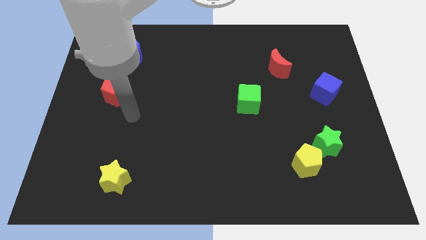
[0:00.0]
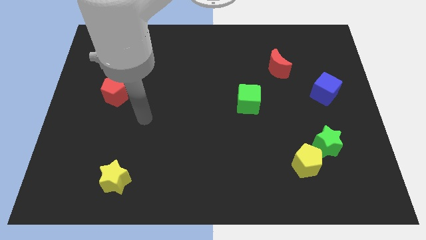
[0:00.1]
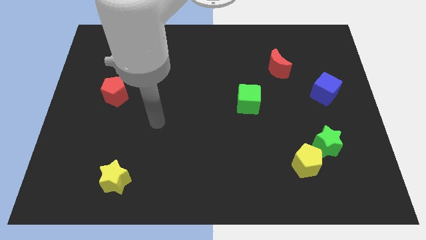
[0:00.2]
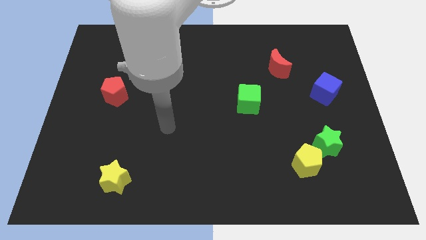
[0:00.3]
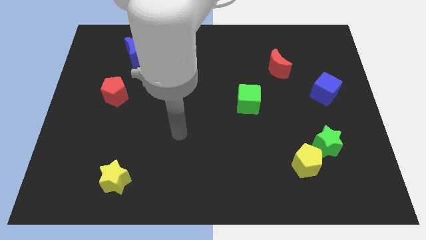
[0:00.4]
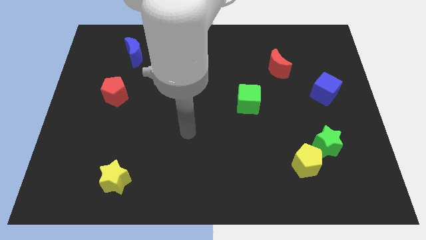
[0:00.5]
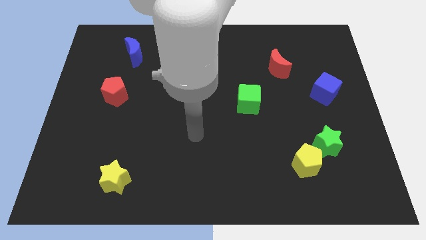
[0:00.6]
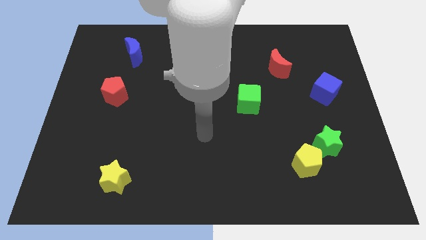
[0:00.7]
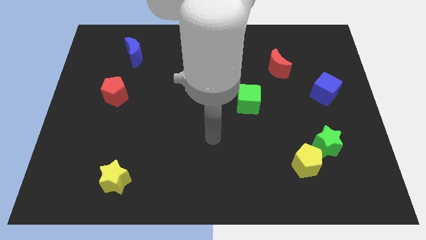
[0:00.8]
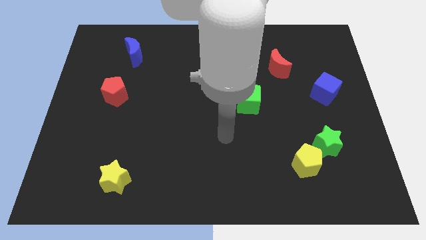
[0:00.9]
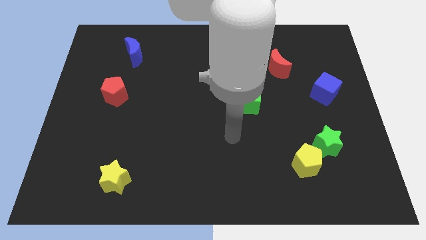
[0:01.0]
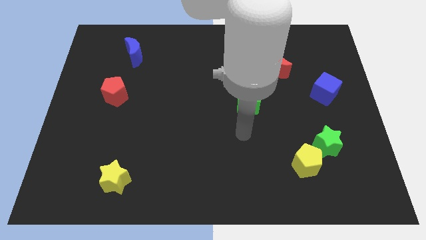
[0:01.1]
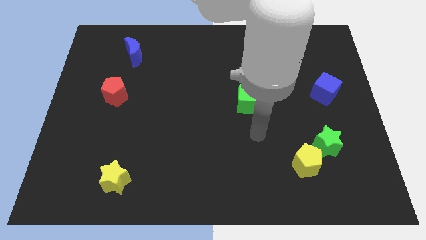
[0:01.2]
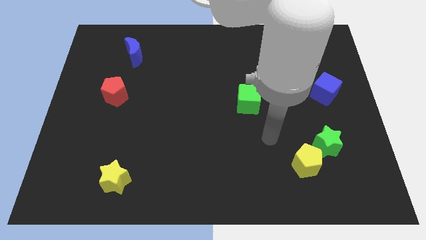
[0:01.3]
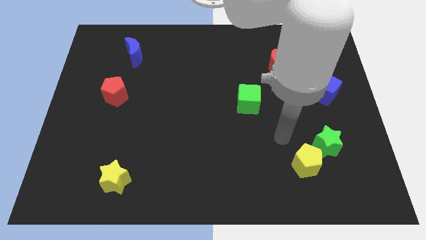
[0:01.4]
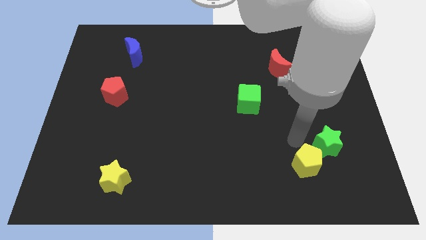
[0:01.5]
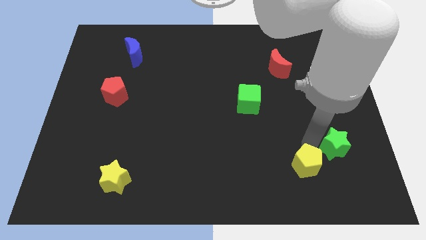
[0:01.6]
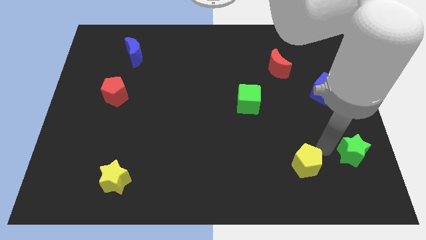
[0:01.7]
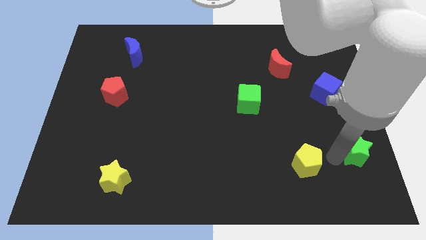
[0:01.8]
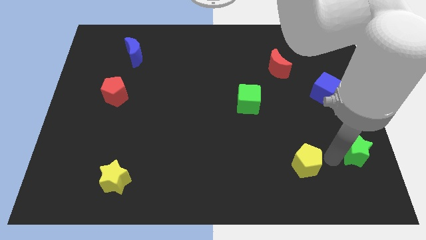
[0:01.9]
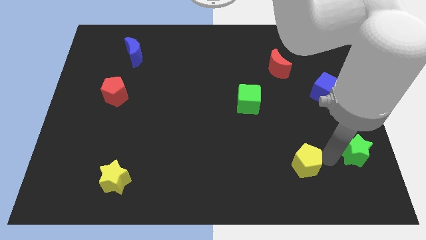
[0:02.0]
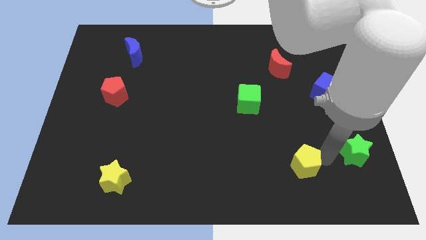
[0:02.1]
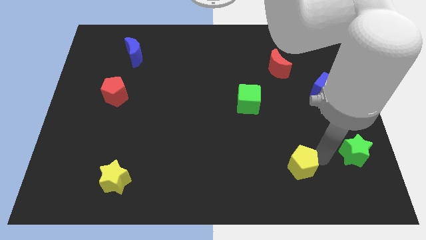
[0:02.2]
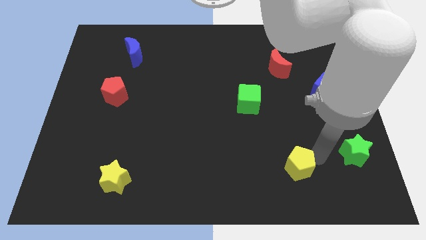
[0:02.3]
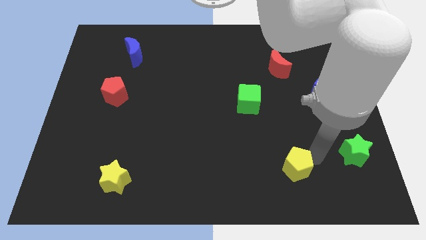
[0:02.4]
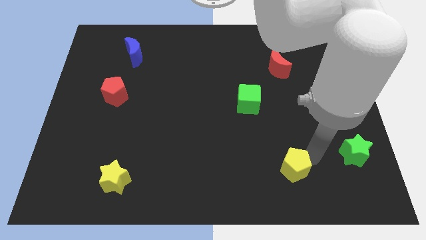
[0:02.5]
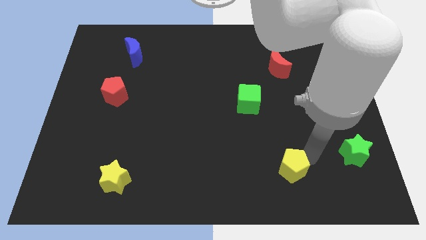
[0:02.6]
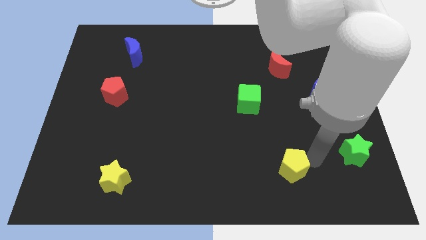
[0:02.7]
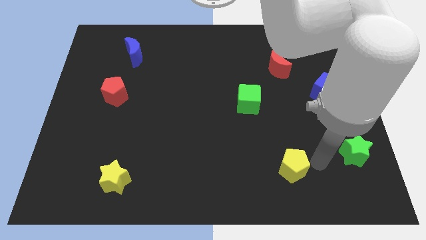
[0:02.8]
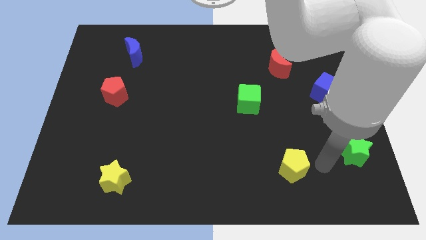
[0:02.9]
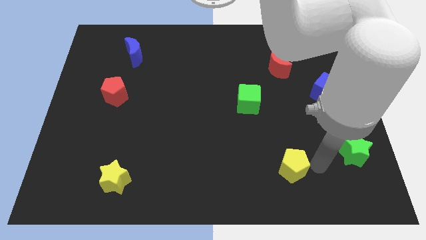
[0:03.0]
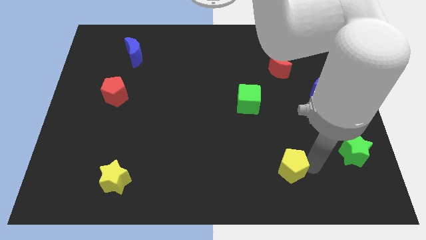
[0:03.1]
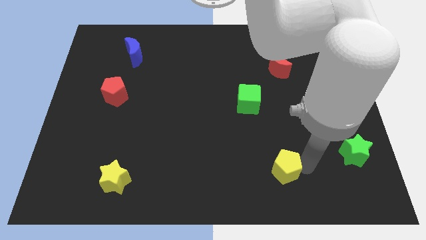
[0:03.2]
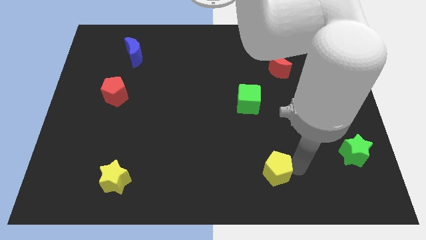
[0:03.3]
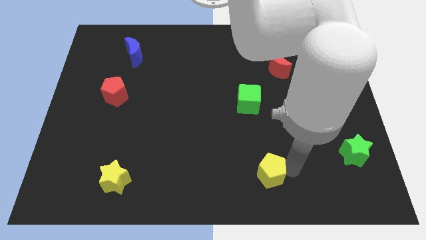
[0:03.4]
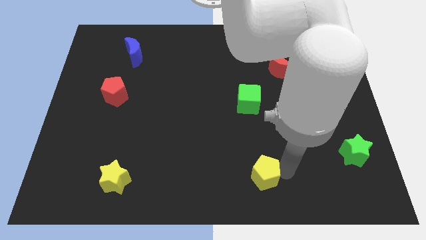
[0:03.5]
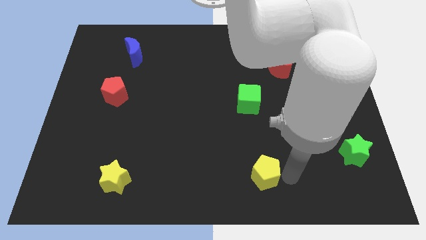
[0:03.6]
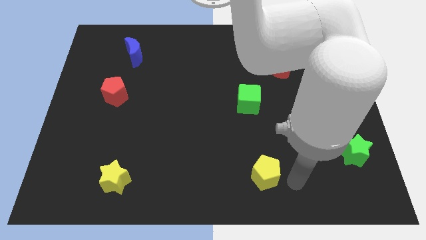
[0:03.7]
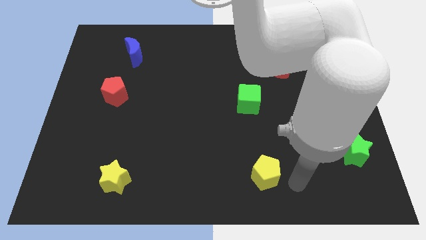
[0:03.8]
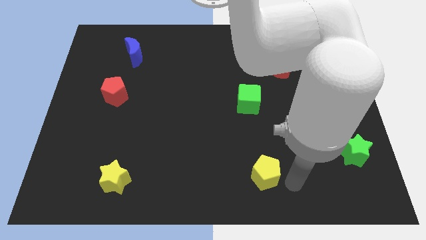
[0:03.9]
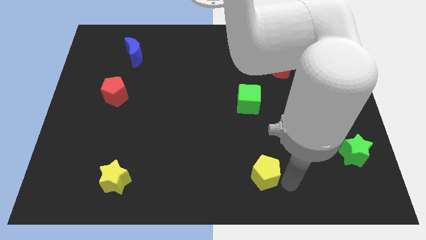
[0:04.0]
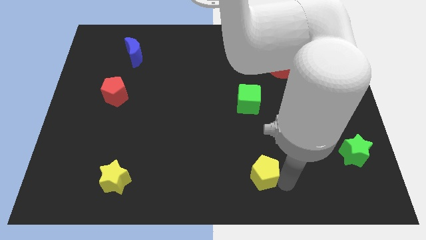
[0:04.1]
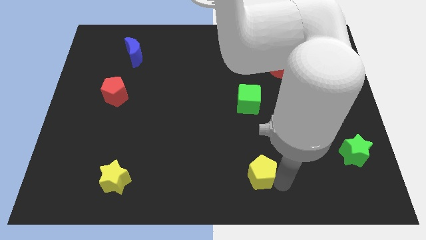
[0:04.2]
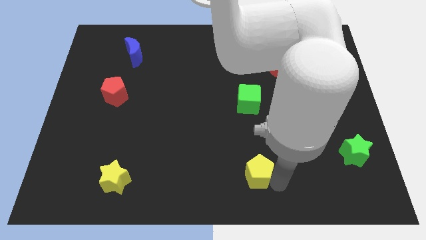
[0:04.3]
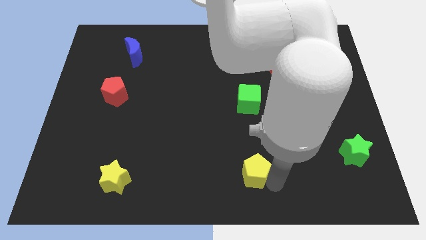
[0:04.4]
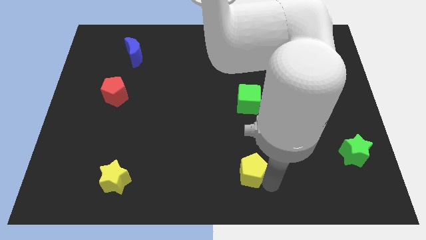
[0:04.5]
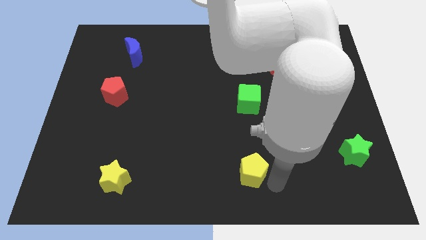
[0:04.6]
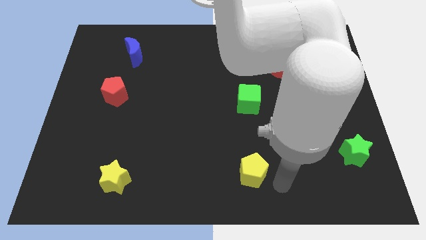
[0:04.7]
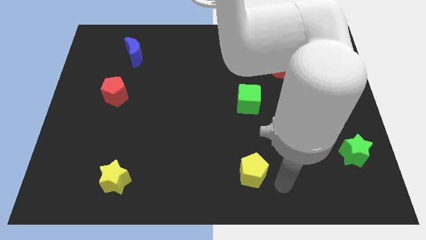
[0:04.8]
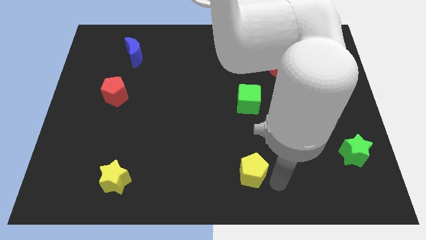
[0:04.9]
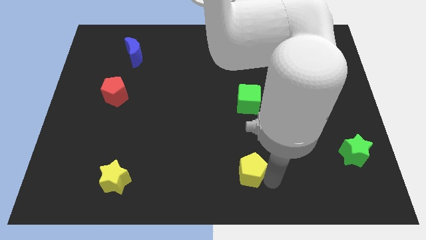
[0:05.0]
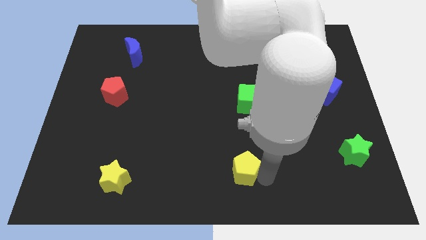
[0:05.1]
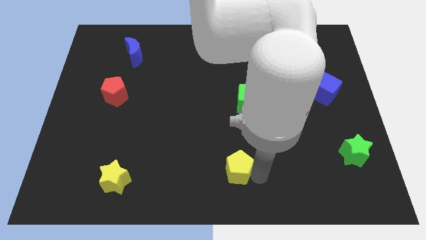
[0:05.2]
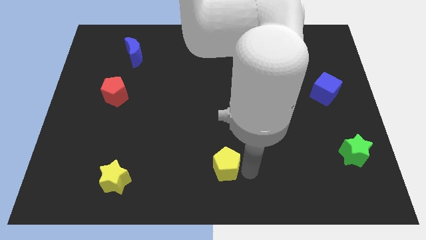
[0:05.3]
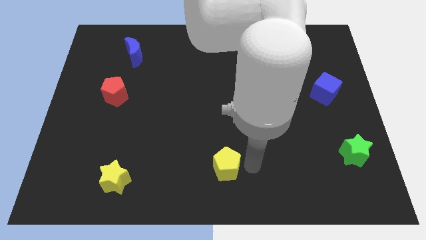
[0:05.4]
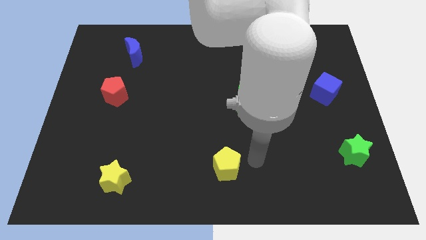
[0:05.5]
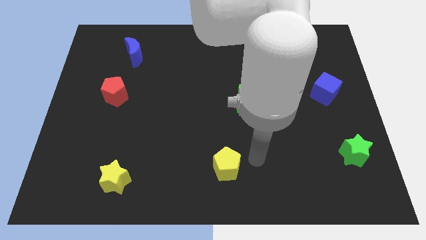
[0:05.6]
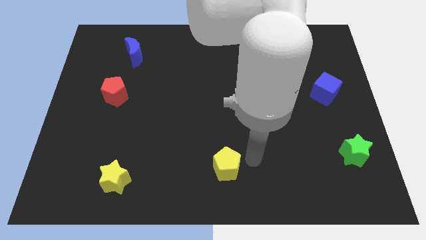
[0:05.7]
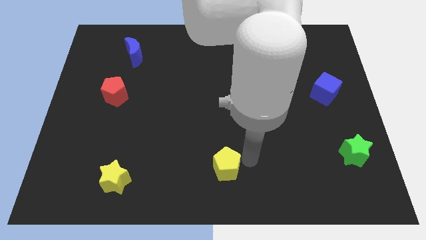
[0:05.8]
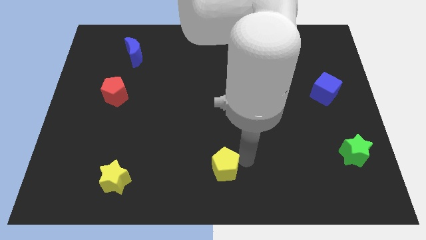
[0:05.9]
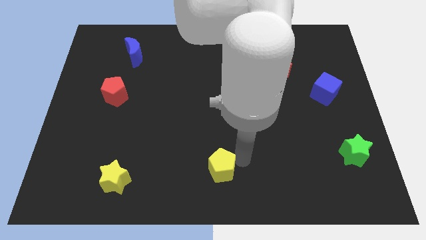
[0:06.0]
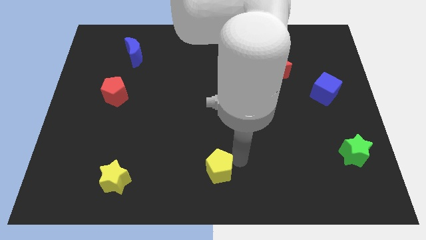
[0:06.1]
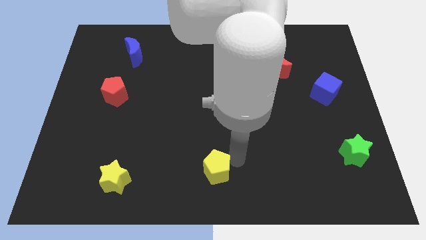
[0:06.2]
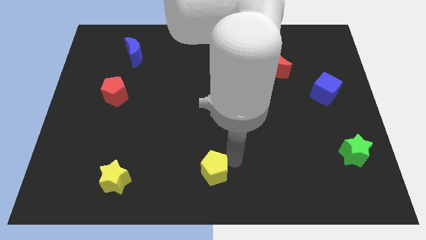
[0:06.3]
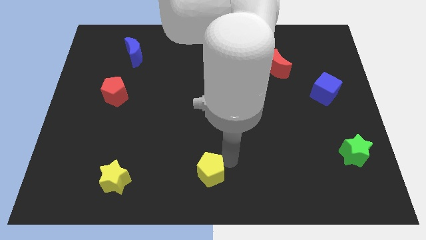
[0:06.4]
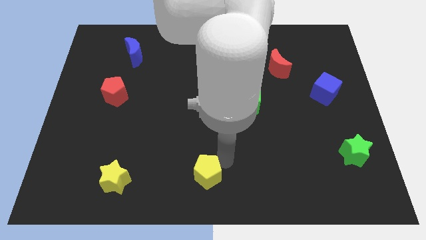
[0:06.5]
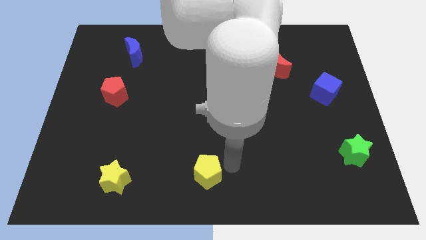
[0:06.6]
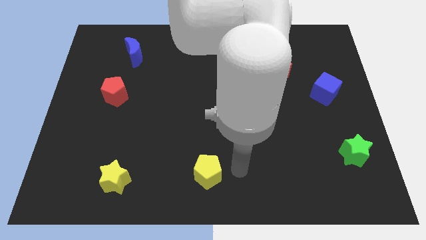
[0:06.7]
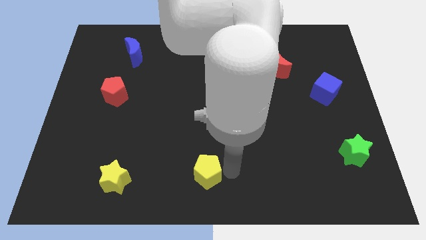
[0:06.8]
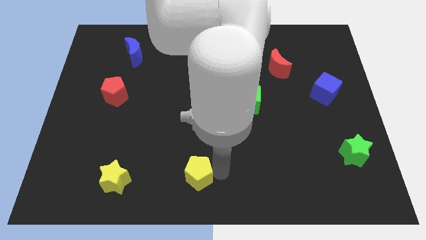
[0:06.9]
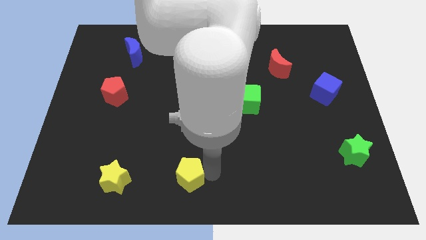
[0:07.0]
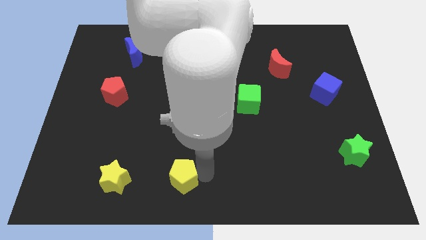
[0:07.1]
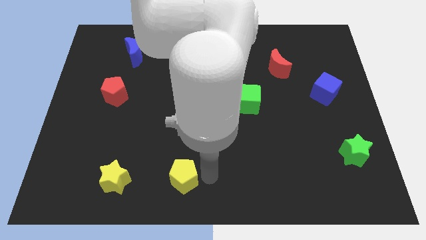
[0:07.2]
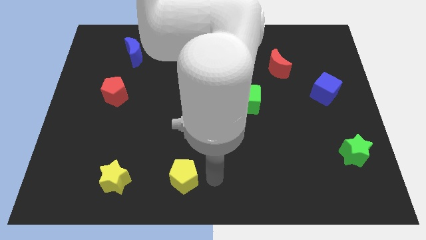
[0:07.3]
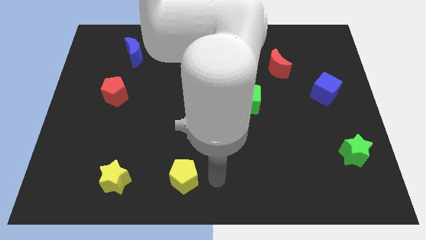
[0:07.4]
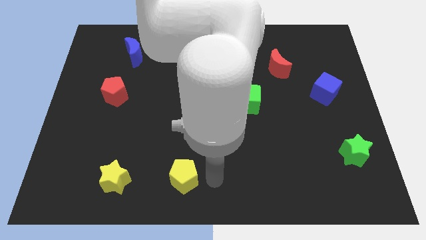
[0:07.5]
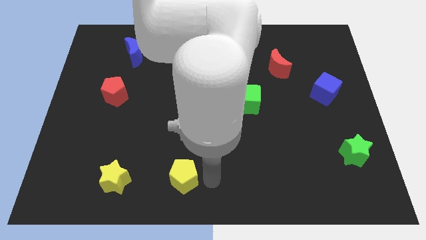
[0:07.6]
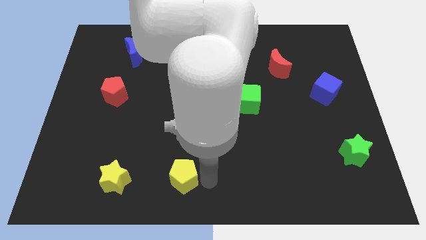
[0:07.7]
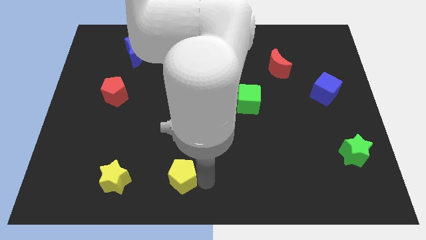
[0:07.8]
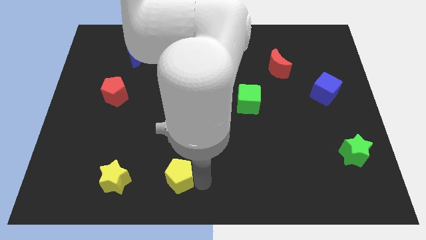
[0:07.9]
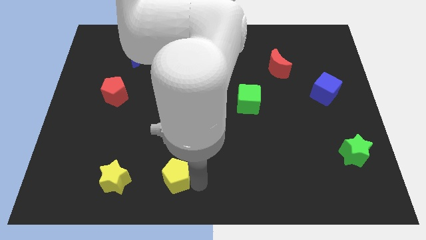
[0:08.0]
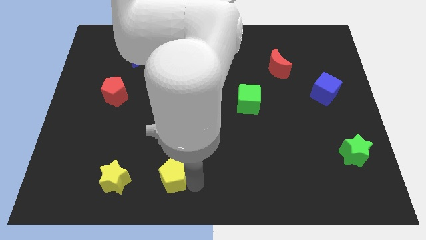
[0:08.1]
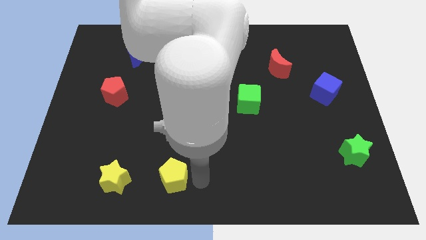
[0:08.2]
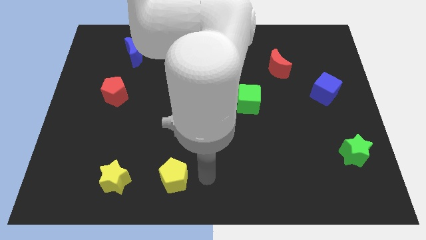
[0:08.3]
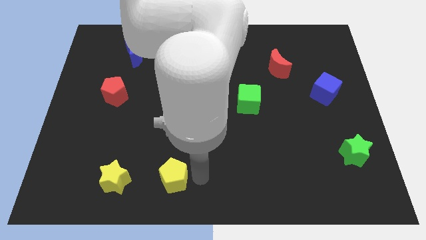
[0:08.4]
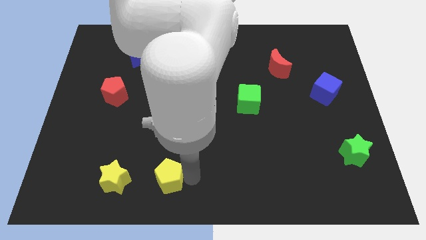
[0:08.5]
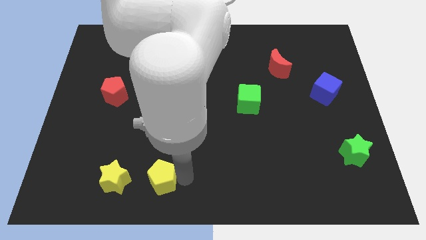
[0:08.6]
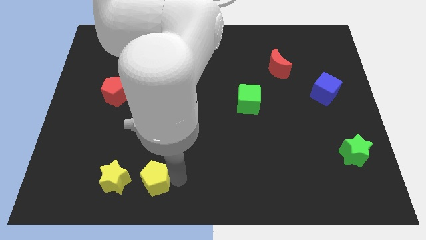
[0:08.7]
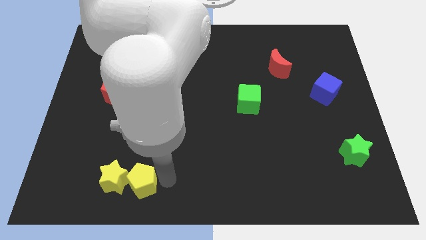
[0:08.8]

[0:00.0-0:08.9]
put the yellow pentagon next to the yellow star
